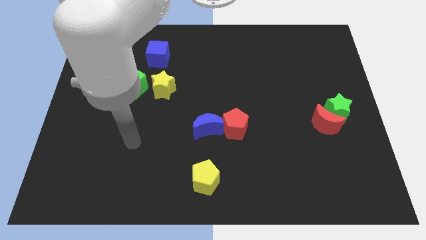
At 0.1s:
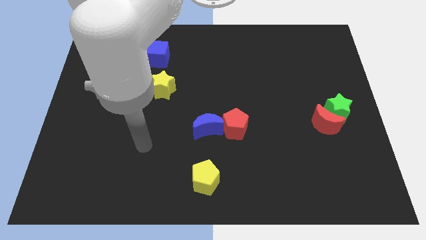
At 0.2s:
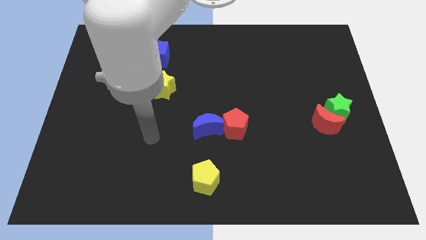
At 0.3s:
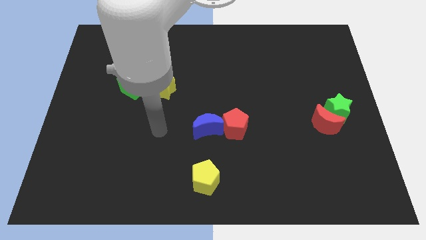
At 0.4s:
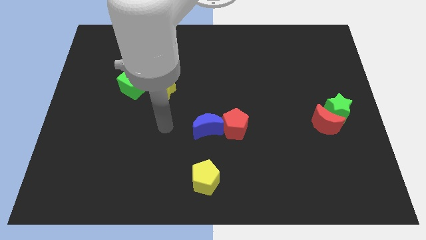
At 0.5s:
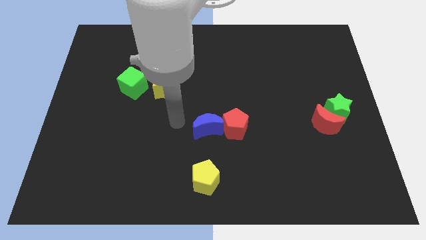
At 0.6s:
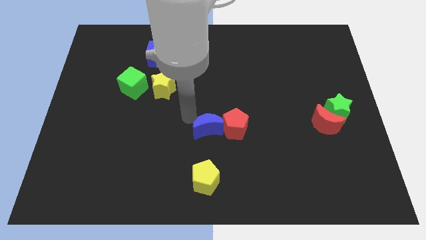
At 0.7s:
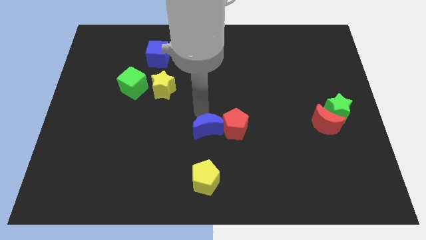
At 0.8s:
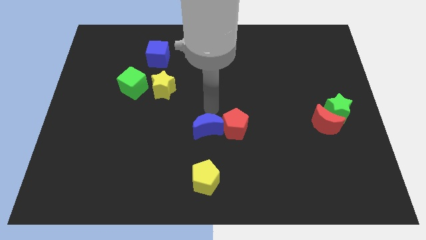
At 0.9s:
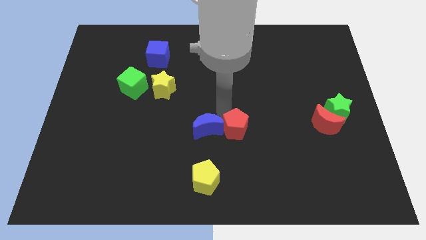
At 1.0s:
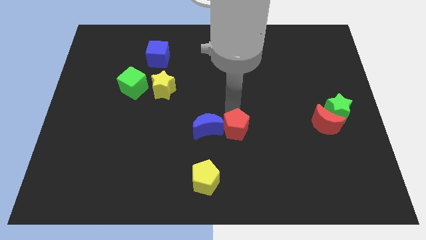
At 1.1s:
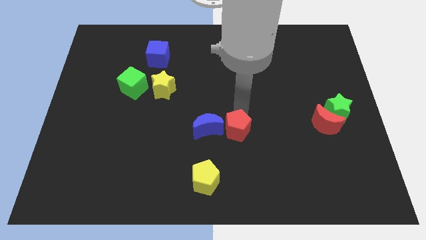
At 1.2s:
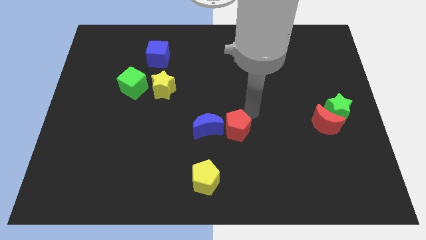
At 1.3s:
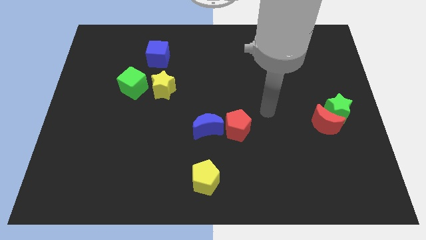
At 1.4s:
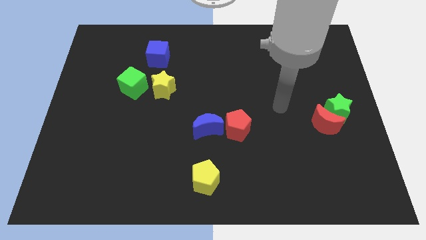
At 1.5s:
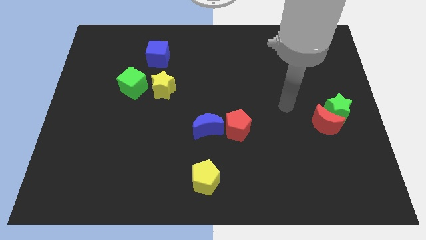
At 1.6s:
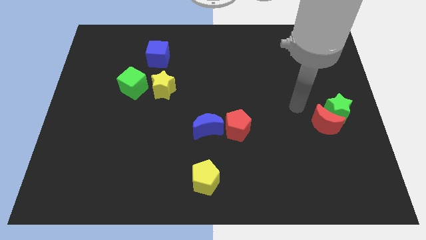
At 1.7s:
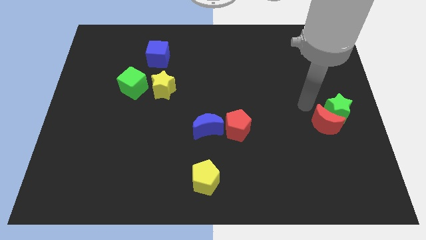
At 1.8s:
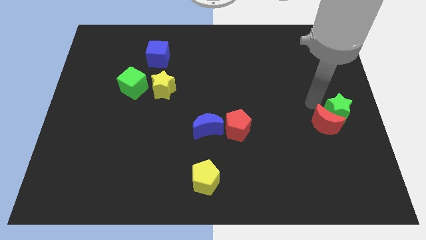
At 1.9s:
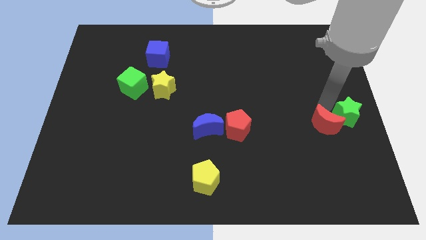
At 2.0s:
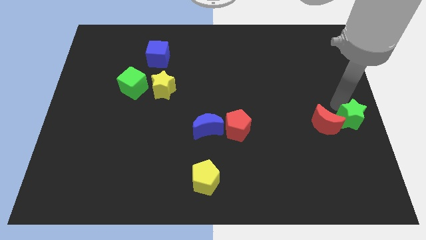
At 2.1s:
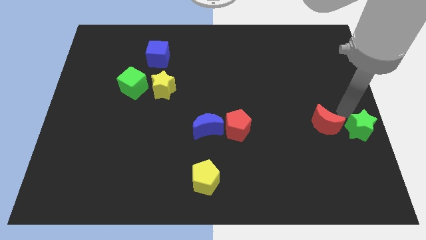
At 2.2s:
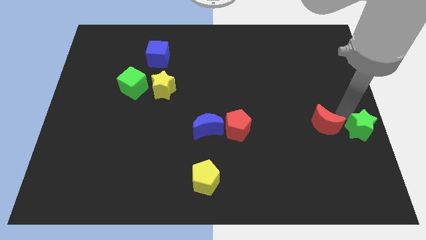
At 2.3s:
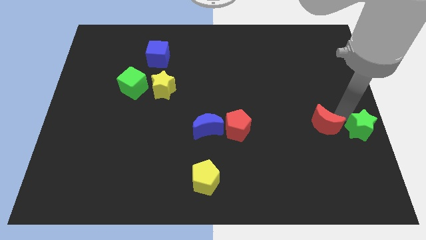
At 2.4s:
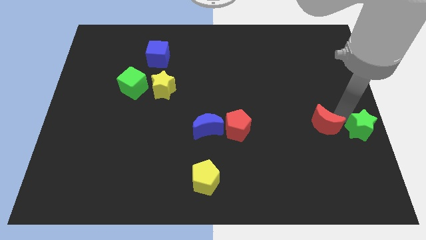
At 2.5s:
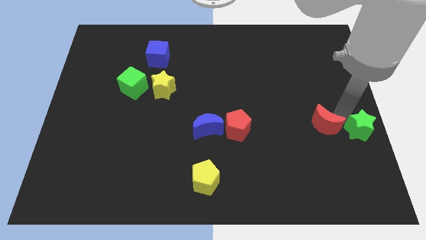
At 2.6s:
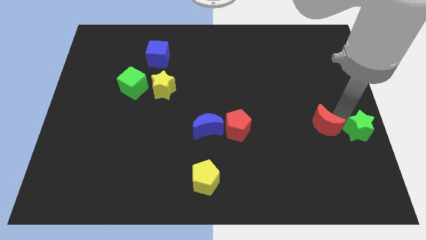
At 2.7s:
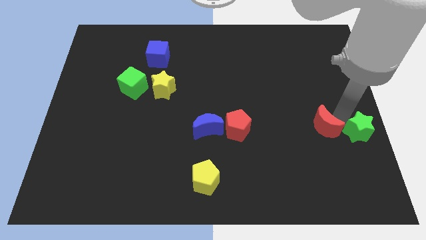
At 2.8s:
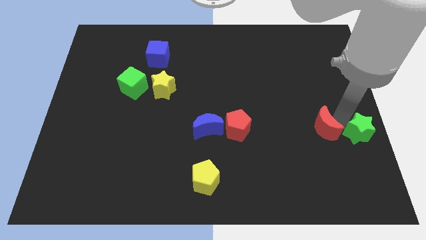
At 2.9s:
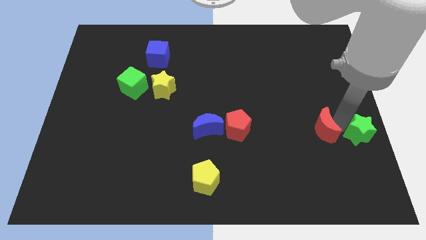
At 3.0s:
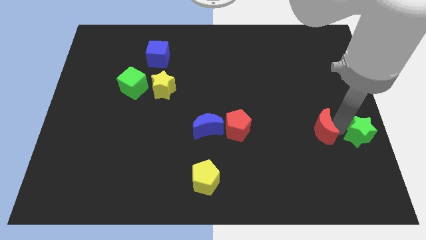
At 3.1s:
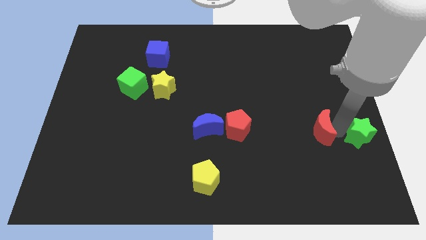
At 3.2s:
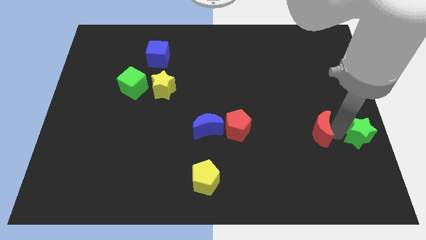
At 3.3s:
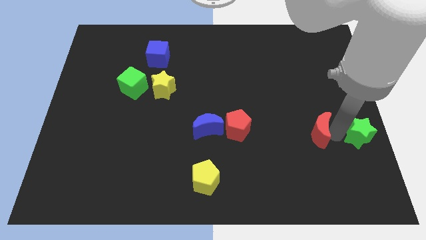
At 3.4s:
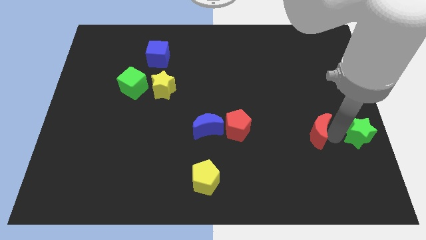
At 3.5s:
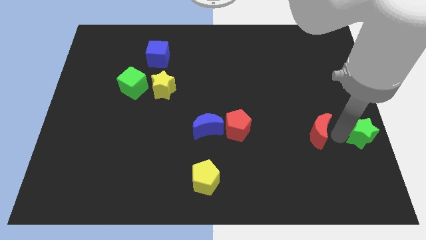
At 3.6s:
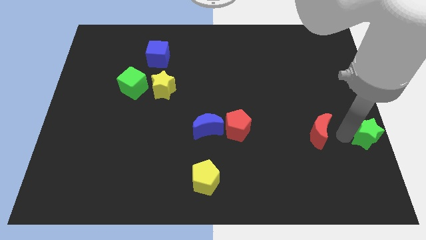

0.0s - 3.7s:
separate the red moon from the green star

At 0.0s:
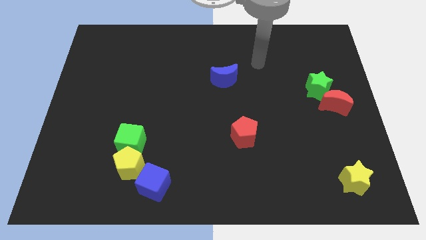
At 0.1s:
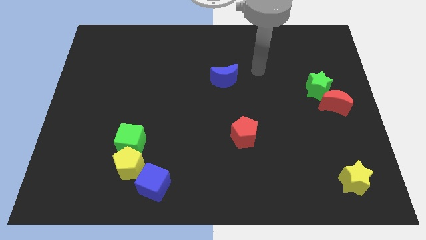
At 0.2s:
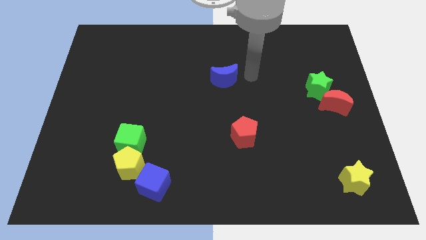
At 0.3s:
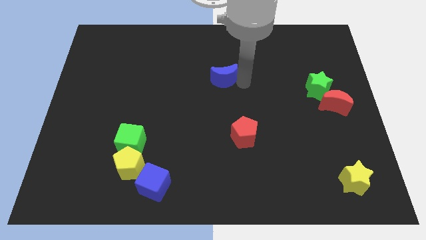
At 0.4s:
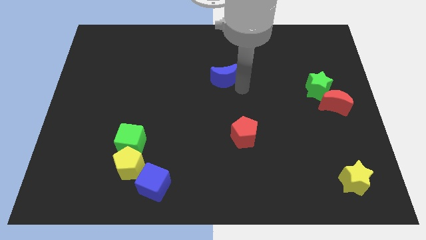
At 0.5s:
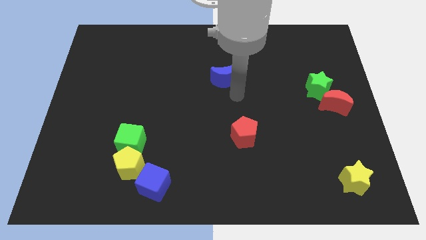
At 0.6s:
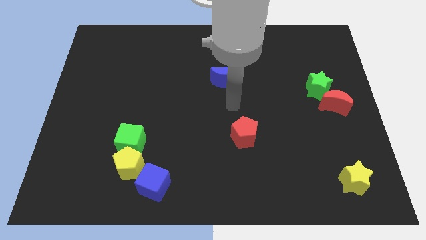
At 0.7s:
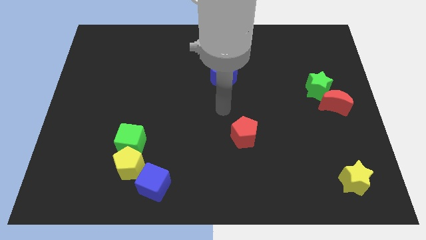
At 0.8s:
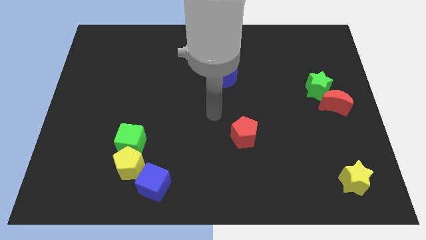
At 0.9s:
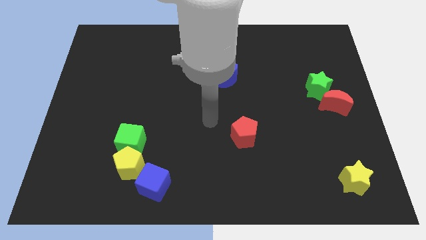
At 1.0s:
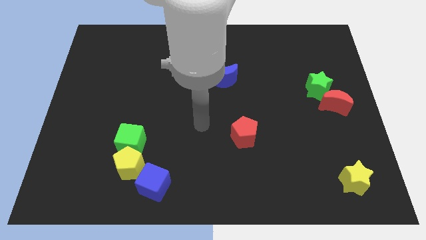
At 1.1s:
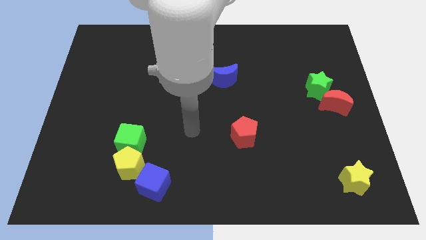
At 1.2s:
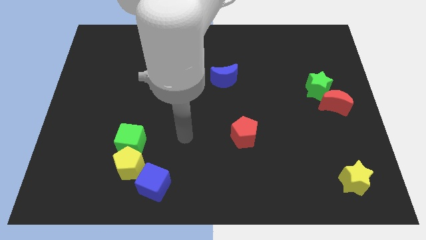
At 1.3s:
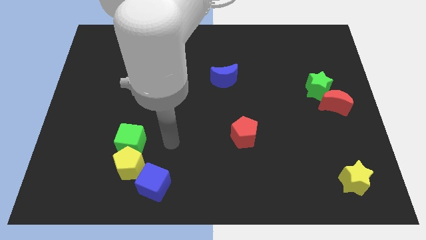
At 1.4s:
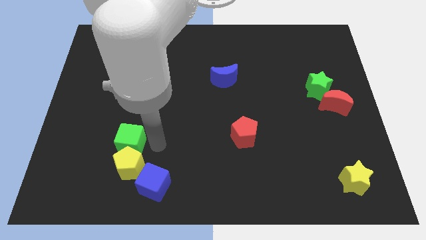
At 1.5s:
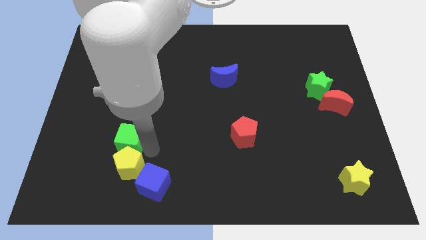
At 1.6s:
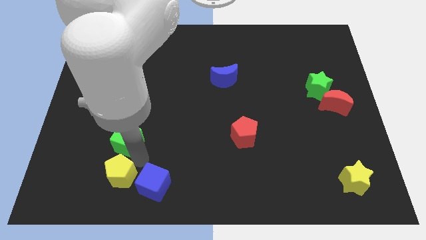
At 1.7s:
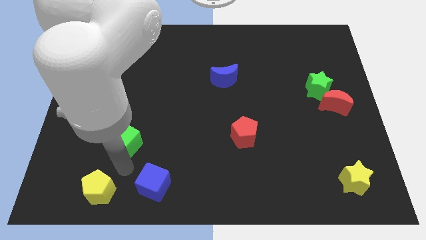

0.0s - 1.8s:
separate the green cube from the yellow pentagon

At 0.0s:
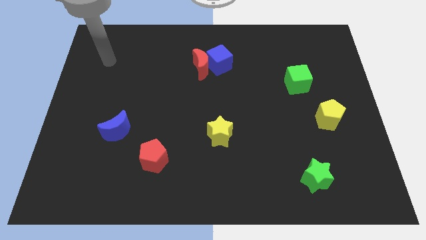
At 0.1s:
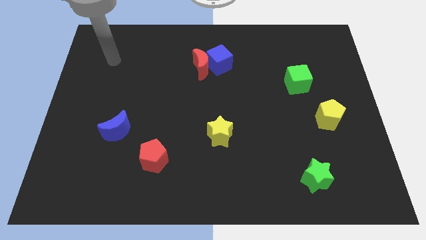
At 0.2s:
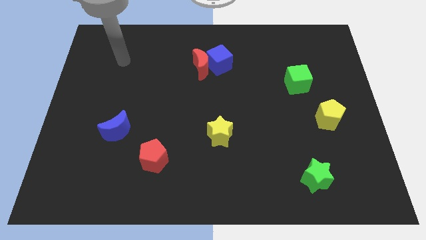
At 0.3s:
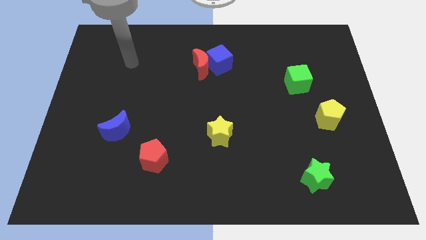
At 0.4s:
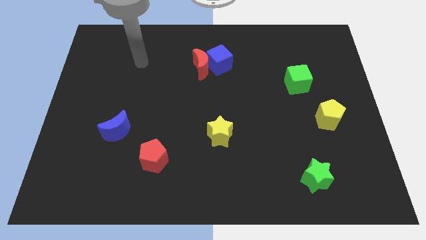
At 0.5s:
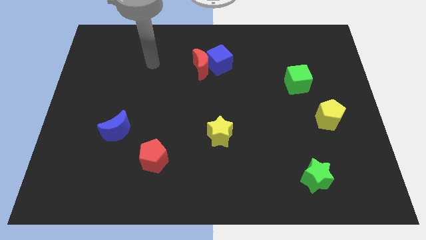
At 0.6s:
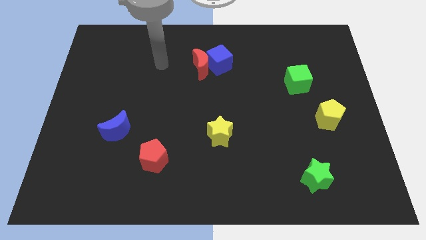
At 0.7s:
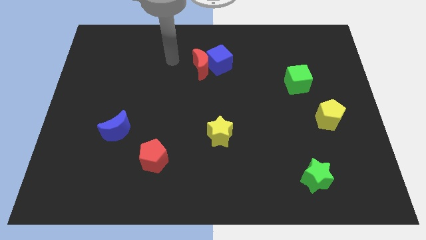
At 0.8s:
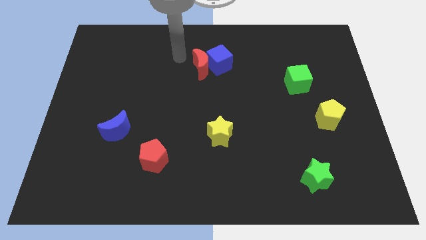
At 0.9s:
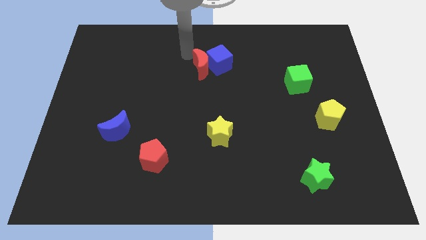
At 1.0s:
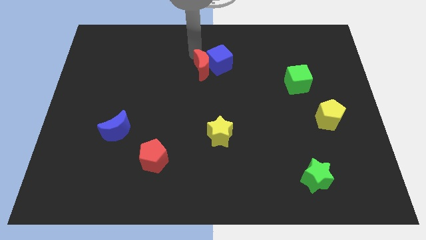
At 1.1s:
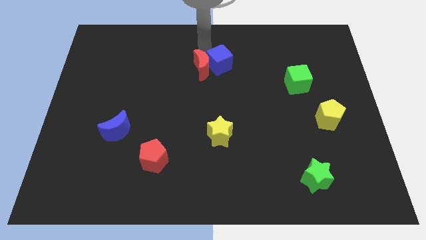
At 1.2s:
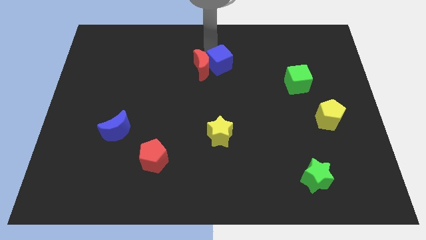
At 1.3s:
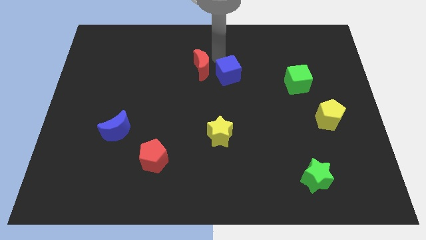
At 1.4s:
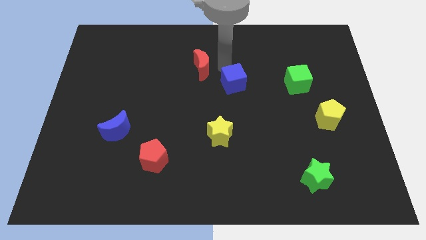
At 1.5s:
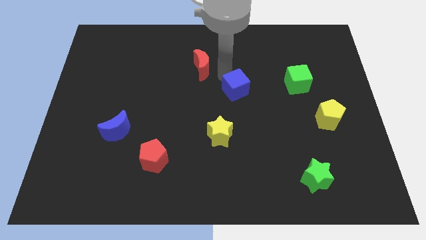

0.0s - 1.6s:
pull the red moon apart from the blue cube

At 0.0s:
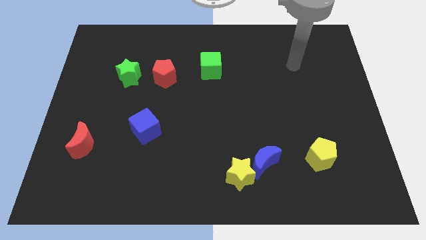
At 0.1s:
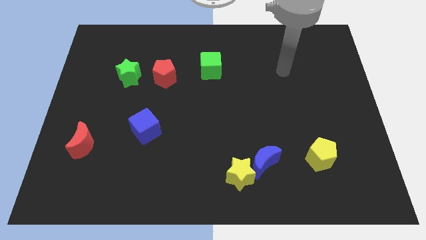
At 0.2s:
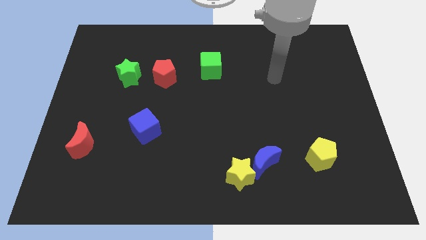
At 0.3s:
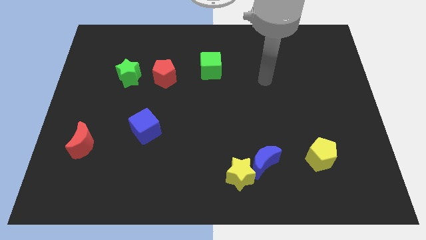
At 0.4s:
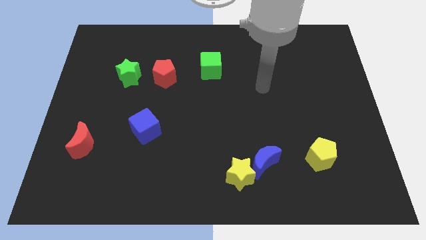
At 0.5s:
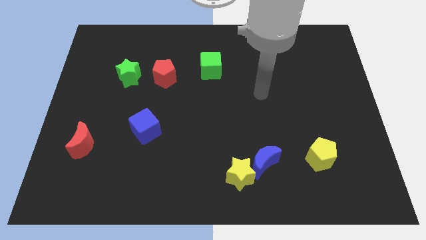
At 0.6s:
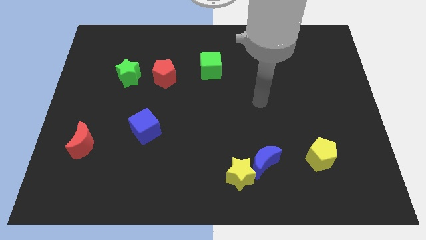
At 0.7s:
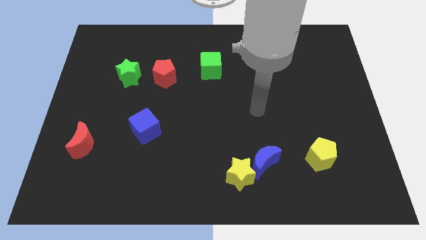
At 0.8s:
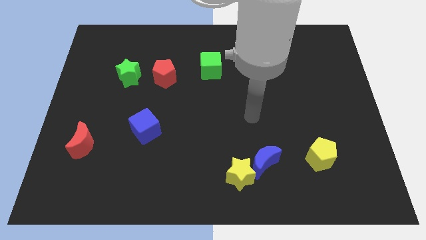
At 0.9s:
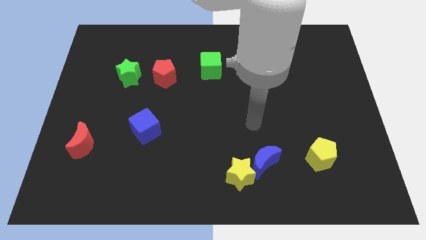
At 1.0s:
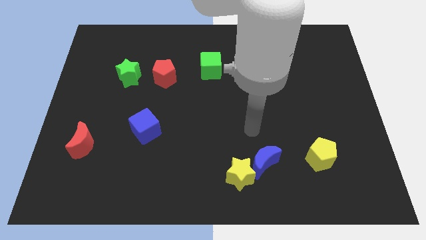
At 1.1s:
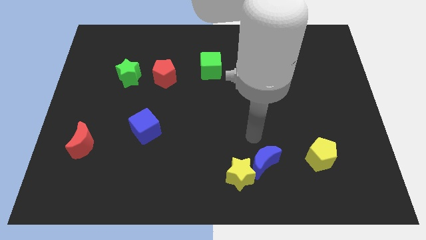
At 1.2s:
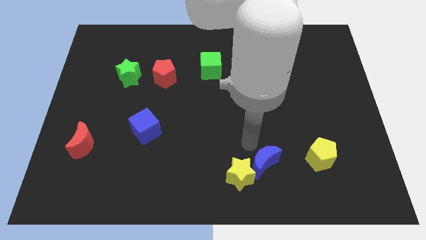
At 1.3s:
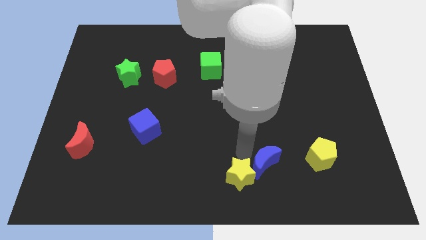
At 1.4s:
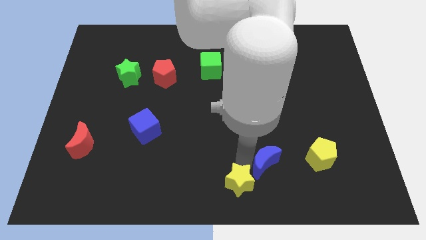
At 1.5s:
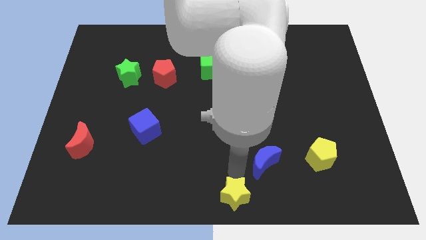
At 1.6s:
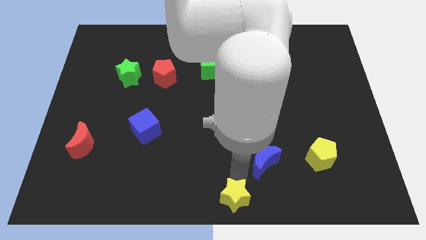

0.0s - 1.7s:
separate the blue moon from the yellow star

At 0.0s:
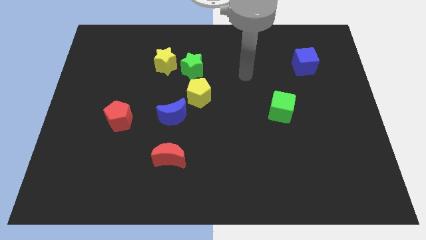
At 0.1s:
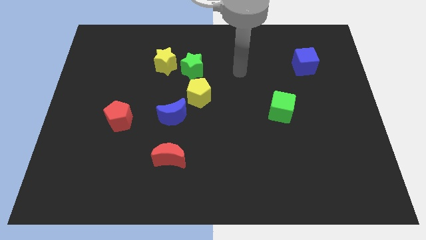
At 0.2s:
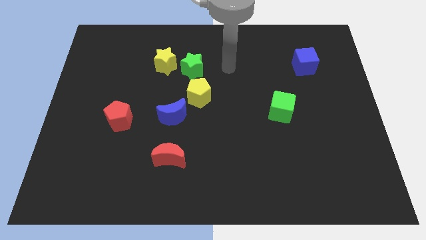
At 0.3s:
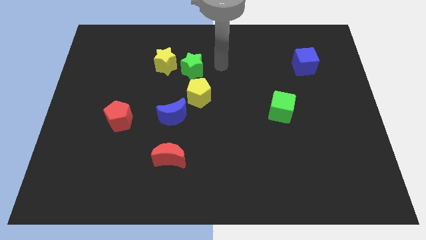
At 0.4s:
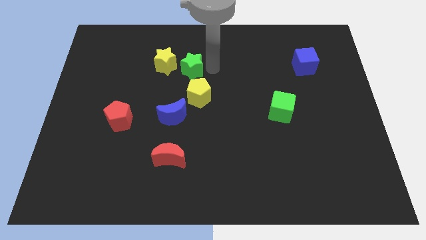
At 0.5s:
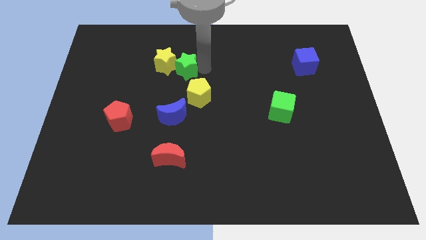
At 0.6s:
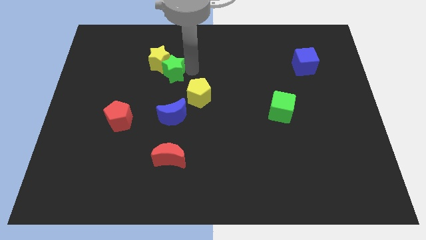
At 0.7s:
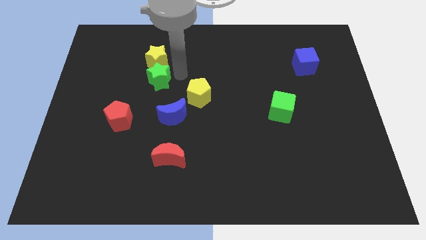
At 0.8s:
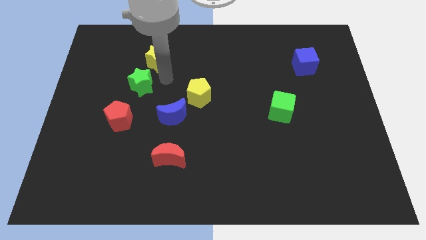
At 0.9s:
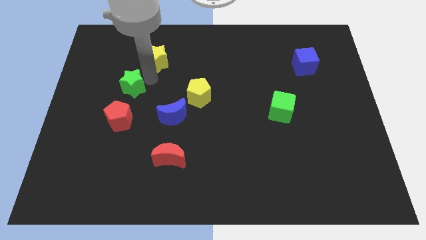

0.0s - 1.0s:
pull the yellow star apart from the green star
